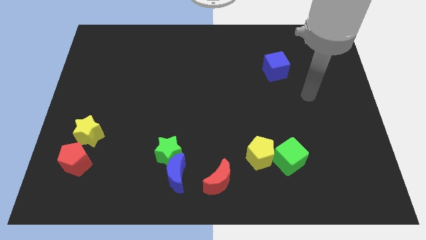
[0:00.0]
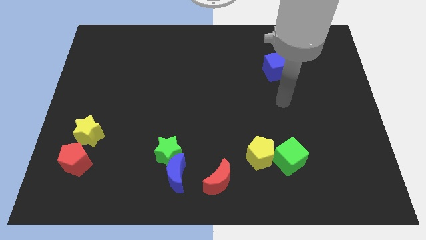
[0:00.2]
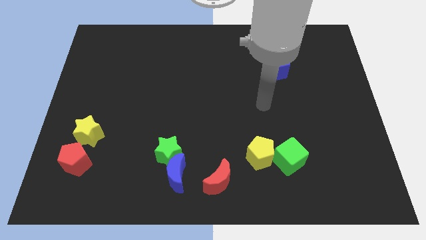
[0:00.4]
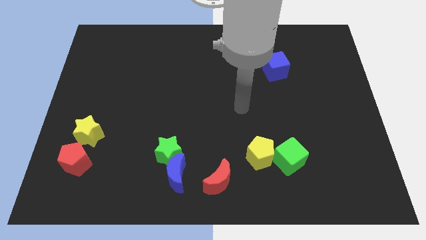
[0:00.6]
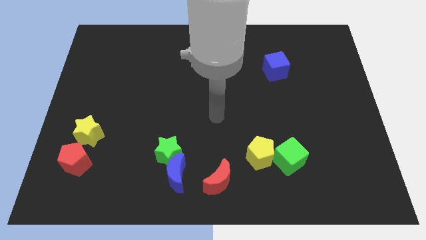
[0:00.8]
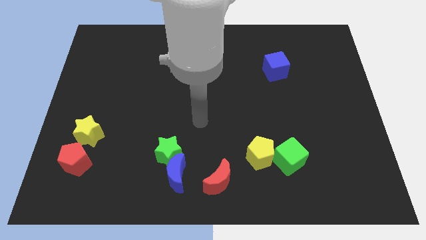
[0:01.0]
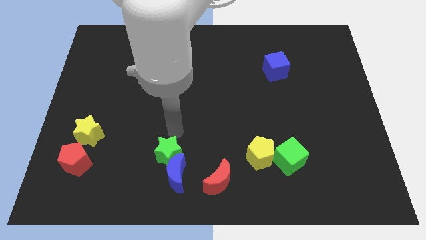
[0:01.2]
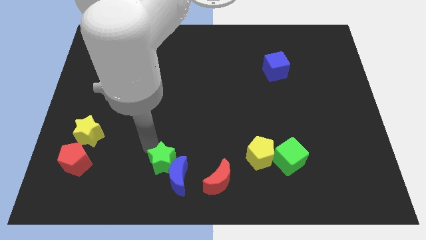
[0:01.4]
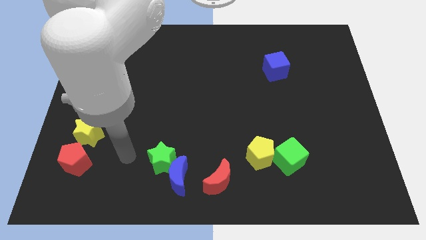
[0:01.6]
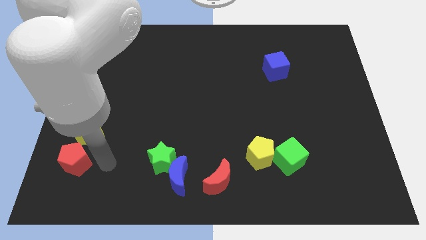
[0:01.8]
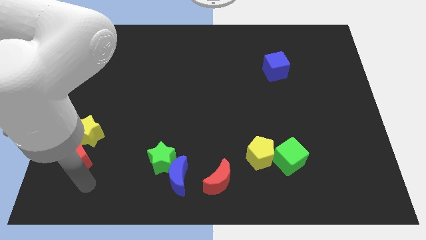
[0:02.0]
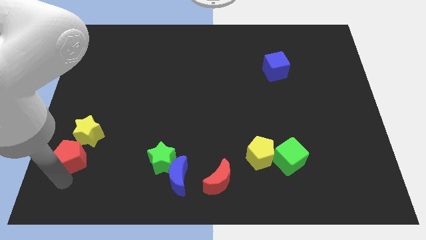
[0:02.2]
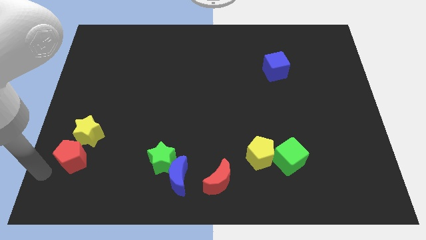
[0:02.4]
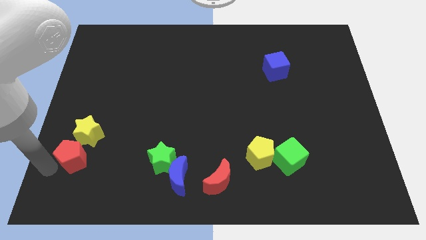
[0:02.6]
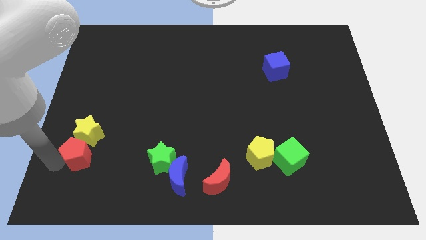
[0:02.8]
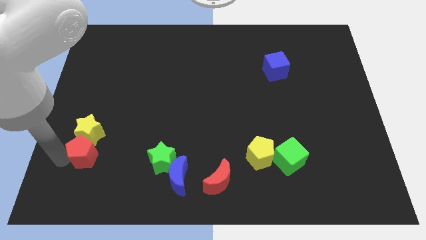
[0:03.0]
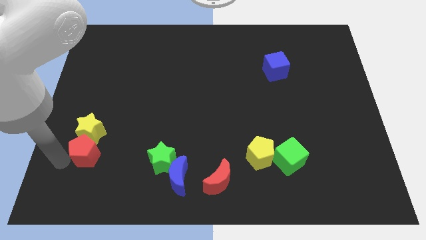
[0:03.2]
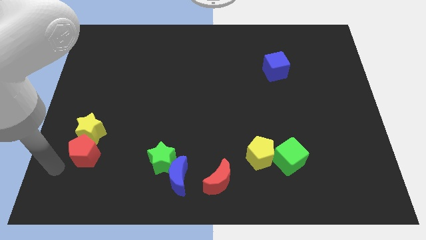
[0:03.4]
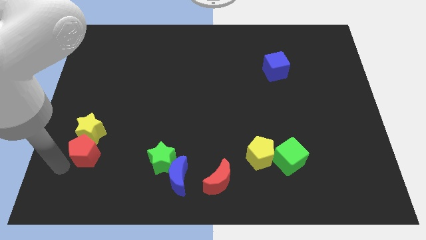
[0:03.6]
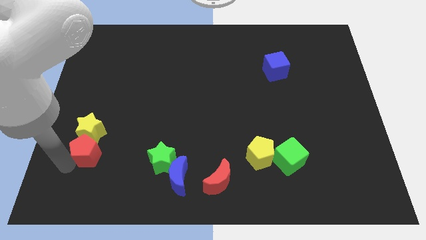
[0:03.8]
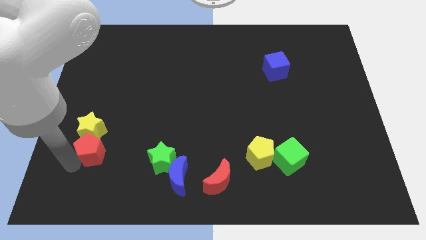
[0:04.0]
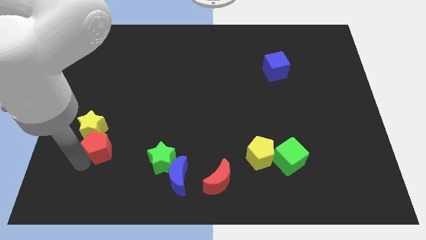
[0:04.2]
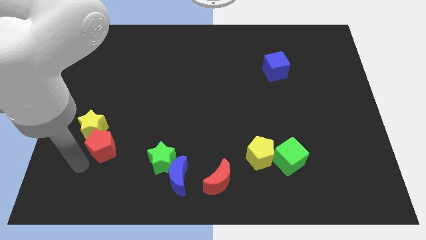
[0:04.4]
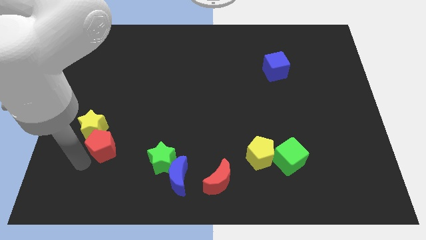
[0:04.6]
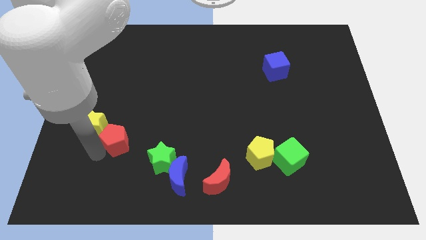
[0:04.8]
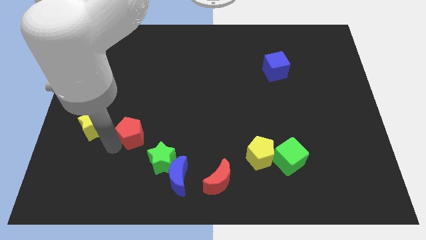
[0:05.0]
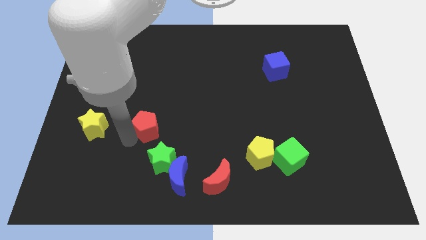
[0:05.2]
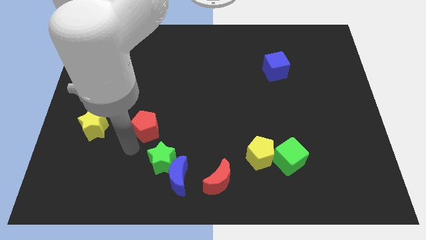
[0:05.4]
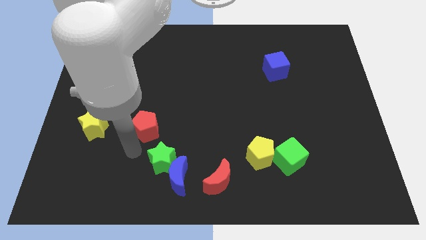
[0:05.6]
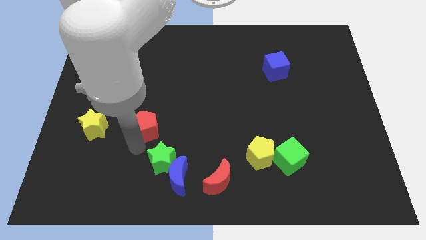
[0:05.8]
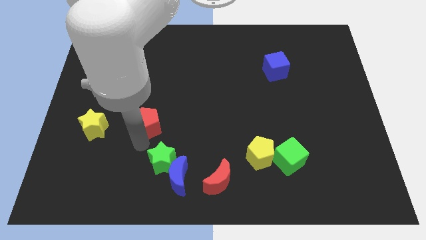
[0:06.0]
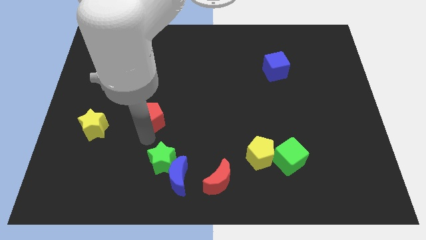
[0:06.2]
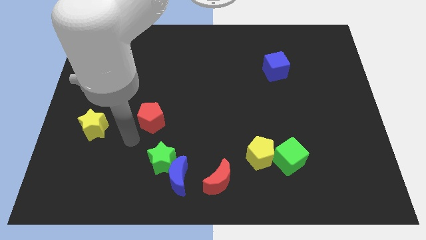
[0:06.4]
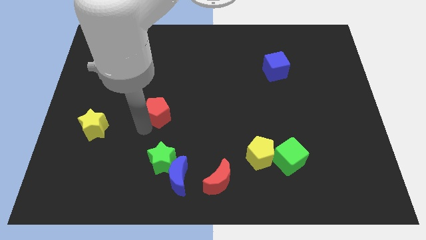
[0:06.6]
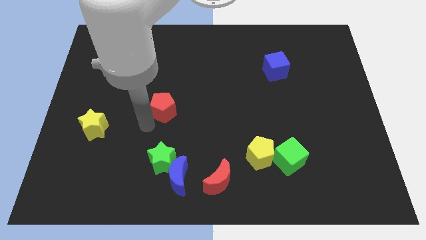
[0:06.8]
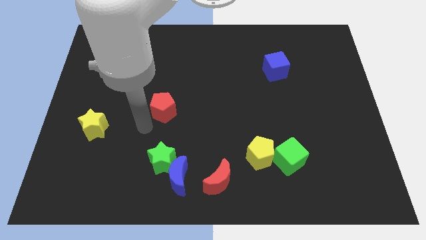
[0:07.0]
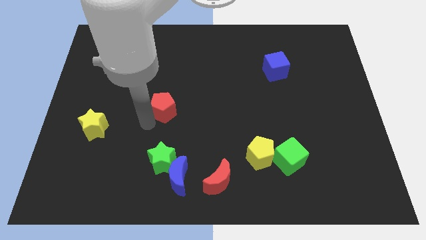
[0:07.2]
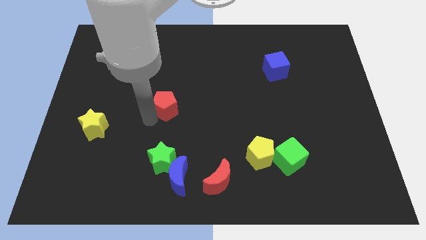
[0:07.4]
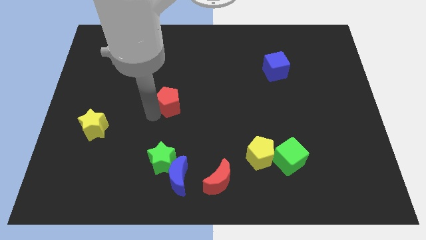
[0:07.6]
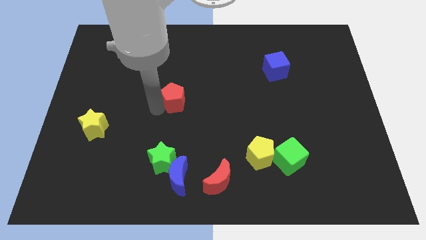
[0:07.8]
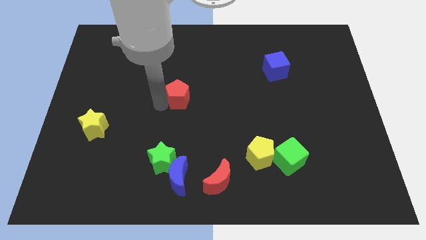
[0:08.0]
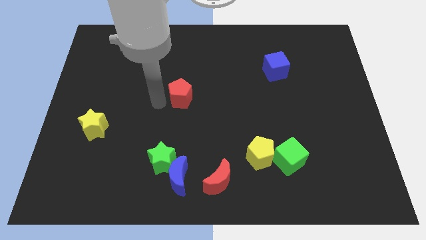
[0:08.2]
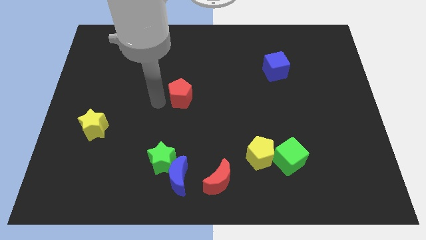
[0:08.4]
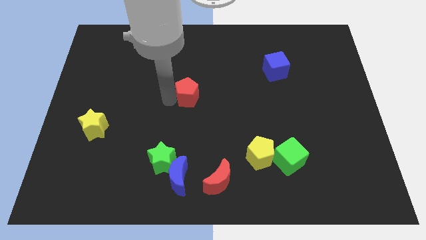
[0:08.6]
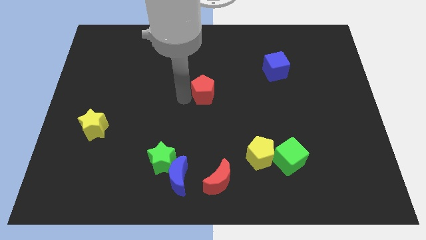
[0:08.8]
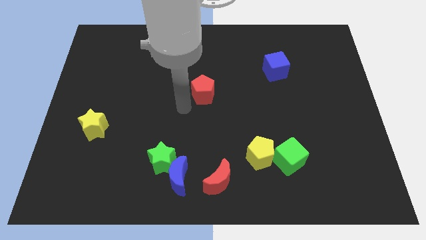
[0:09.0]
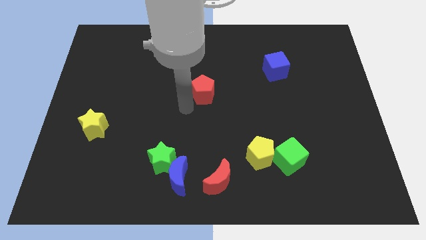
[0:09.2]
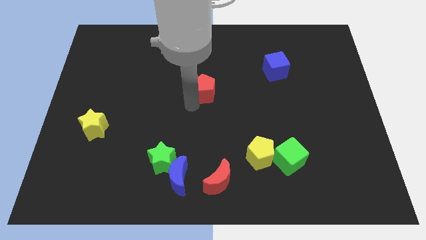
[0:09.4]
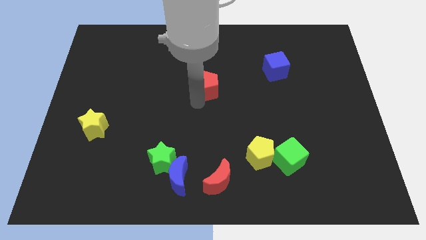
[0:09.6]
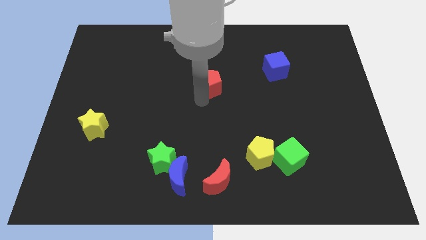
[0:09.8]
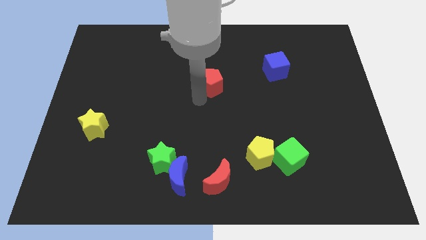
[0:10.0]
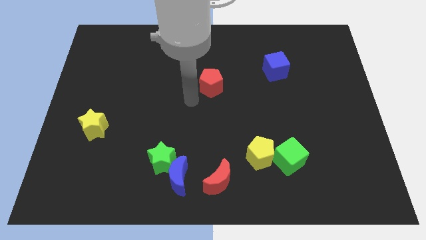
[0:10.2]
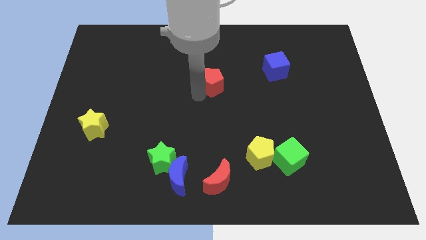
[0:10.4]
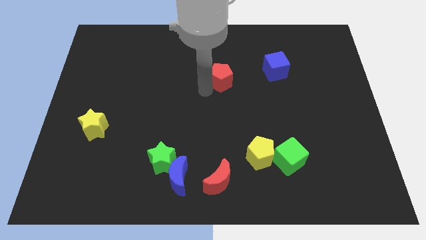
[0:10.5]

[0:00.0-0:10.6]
move the red pentagon just left of the blue cube

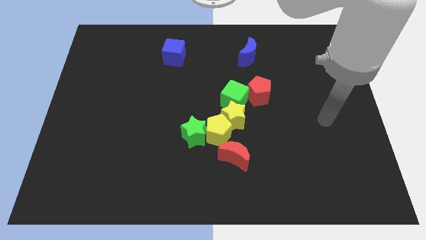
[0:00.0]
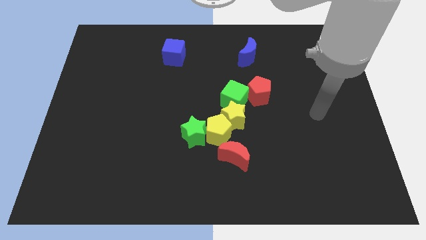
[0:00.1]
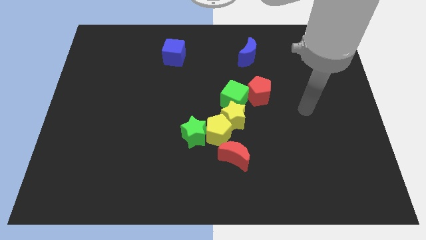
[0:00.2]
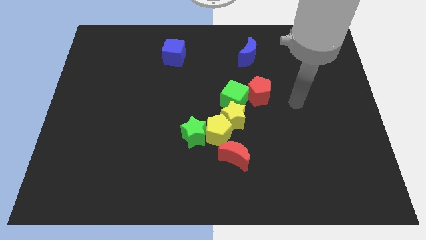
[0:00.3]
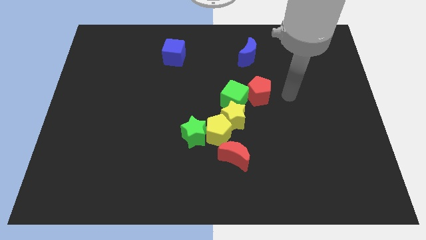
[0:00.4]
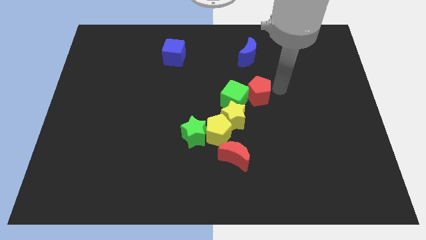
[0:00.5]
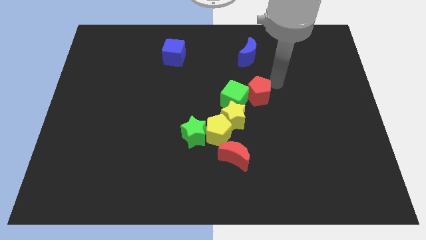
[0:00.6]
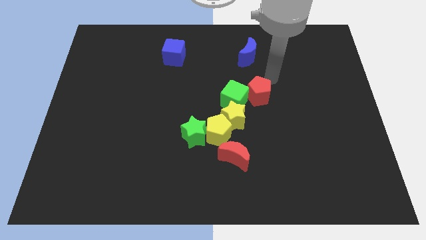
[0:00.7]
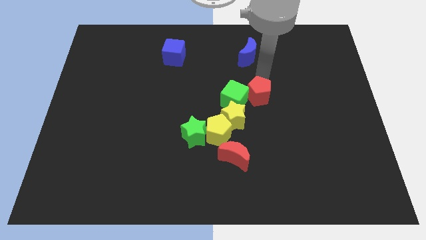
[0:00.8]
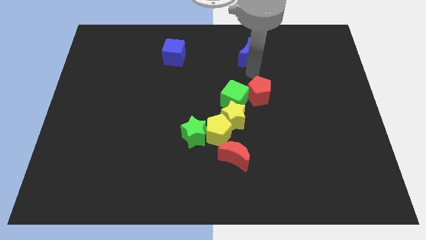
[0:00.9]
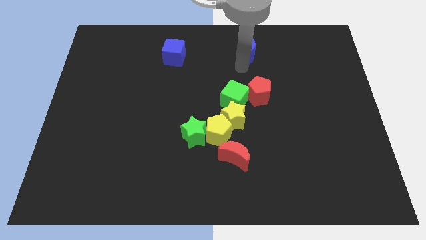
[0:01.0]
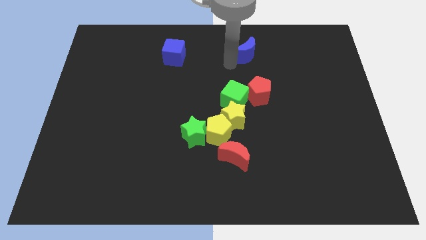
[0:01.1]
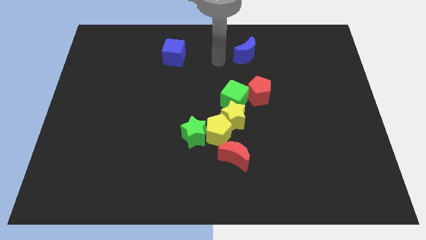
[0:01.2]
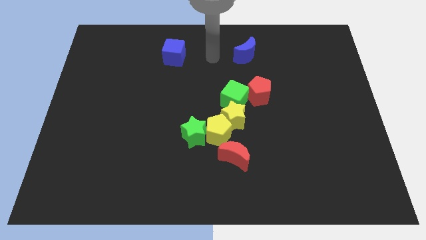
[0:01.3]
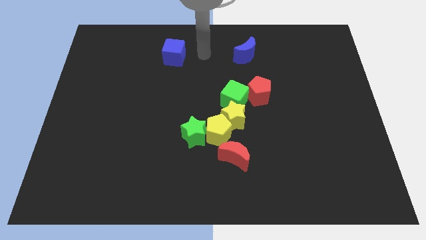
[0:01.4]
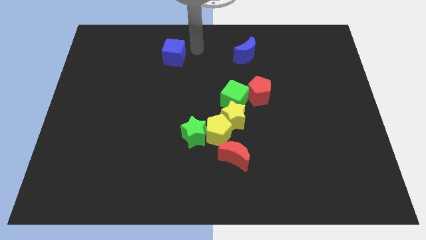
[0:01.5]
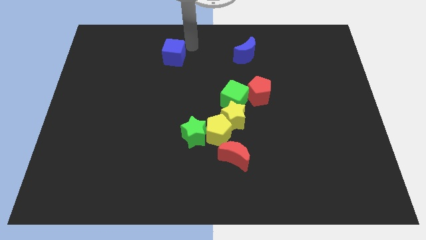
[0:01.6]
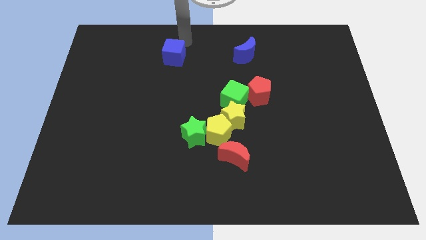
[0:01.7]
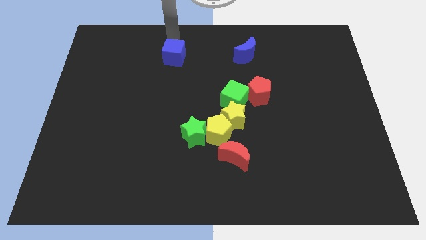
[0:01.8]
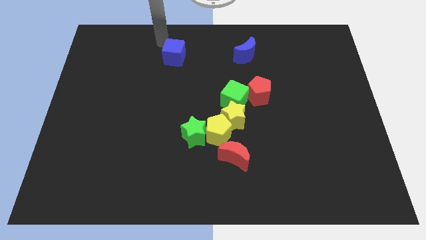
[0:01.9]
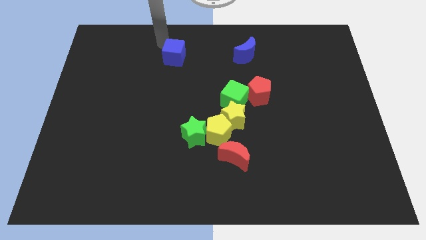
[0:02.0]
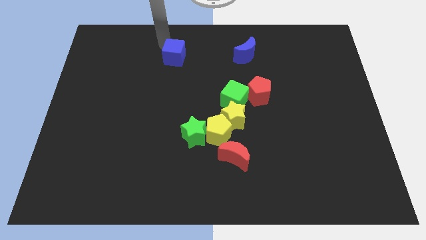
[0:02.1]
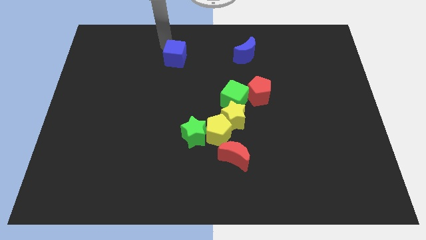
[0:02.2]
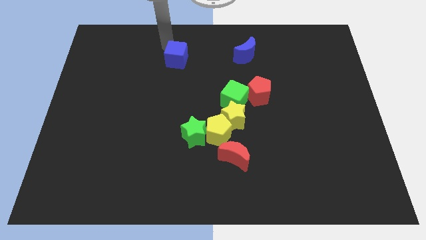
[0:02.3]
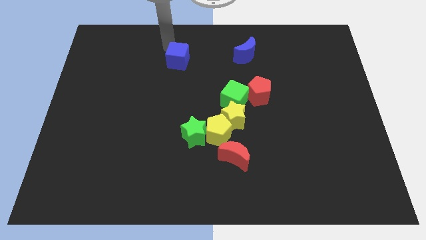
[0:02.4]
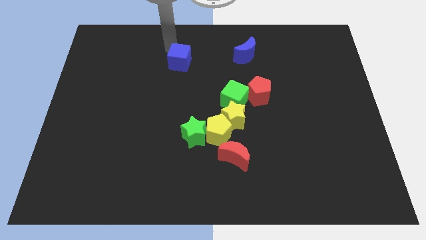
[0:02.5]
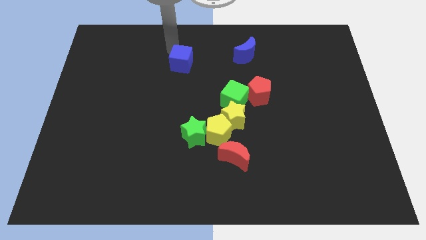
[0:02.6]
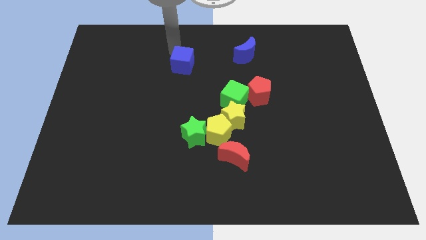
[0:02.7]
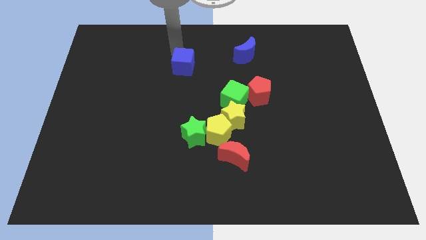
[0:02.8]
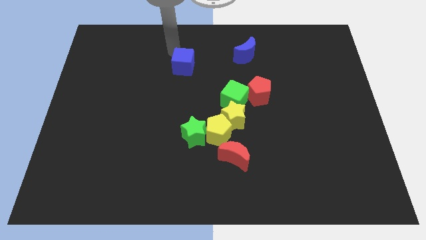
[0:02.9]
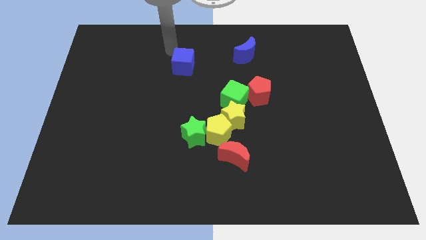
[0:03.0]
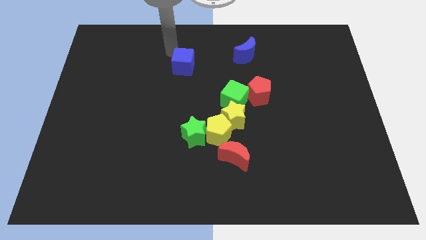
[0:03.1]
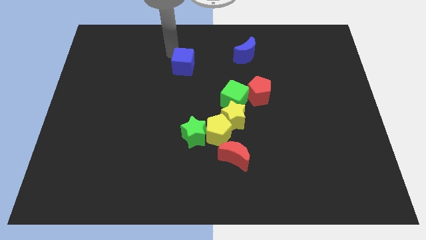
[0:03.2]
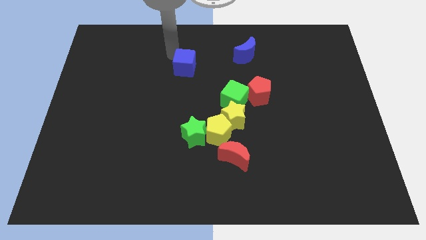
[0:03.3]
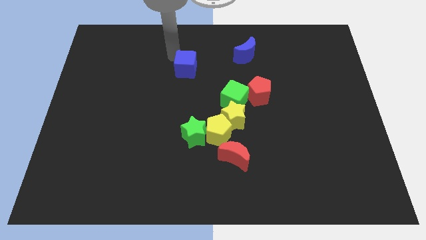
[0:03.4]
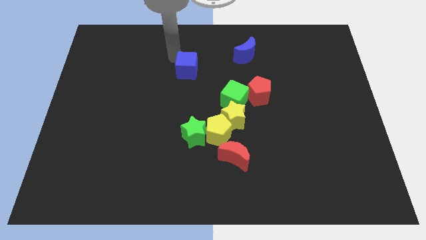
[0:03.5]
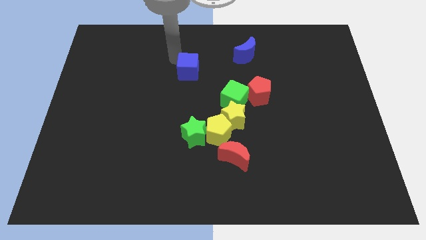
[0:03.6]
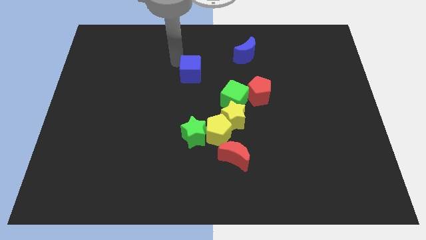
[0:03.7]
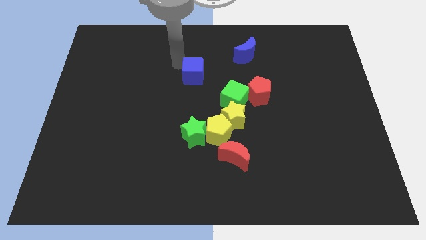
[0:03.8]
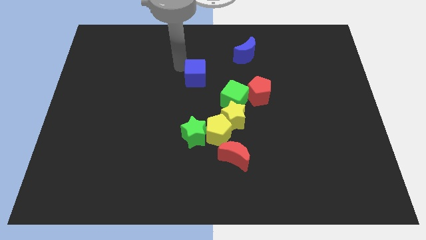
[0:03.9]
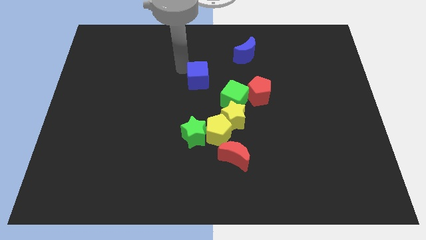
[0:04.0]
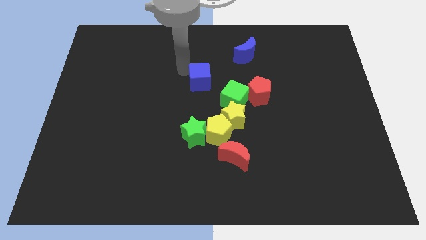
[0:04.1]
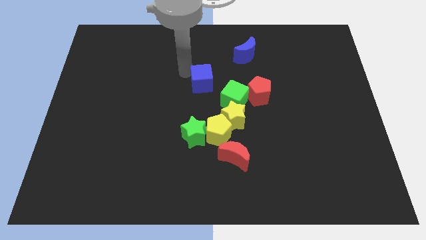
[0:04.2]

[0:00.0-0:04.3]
push the blue cube left of the red pentagon
